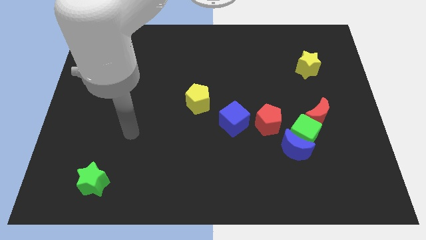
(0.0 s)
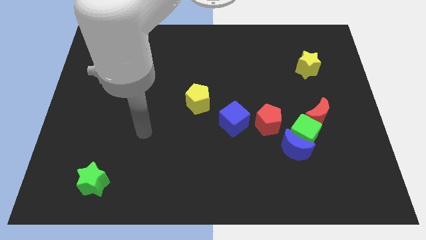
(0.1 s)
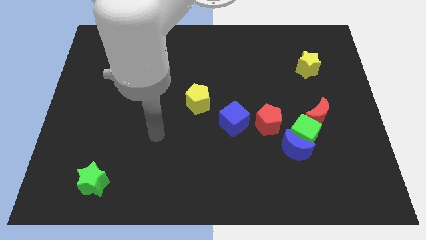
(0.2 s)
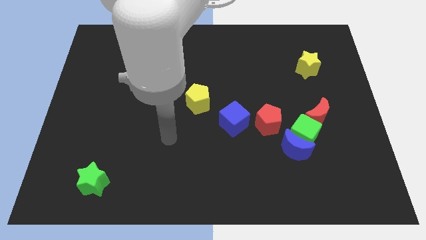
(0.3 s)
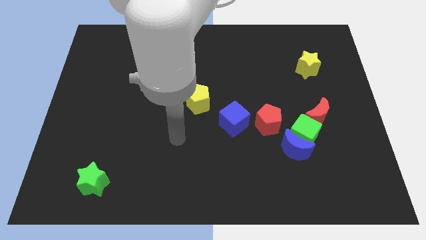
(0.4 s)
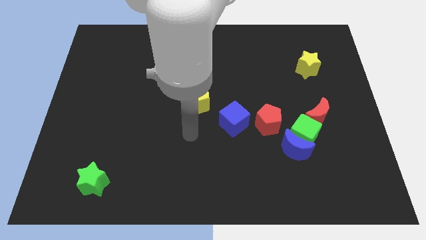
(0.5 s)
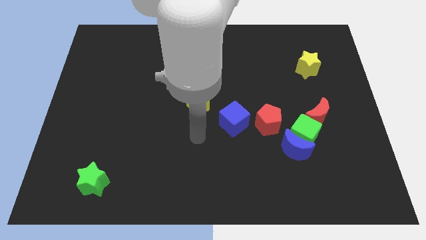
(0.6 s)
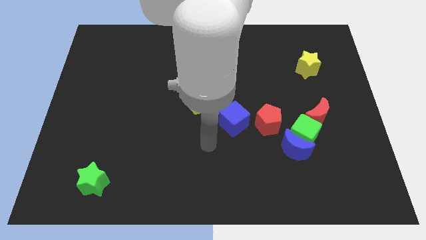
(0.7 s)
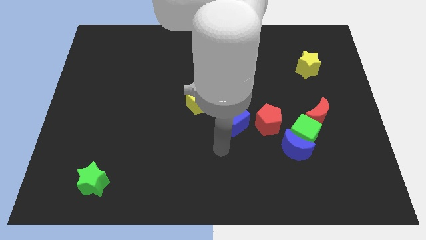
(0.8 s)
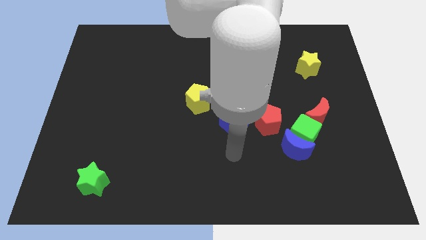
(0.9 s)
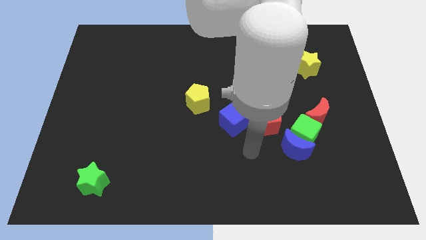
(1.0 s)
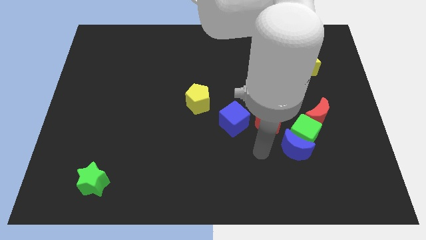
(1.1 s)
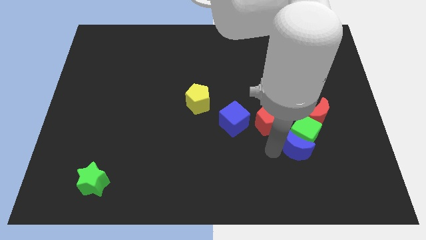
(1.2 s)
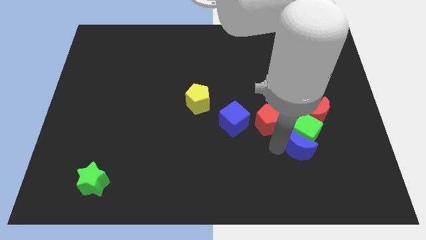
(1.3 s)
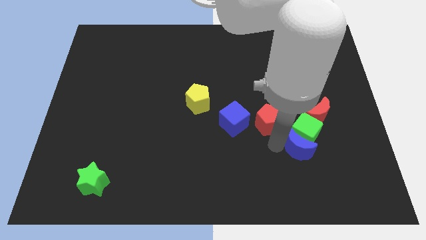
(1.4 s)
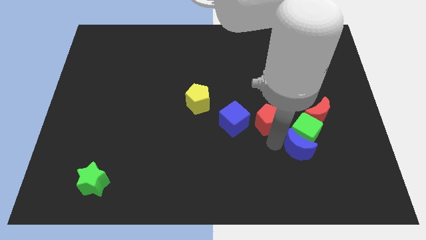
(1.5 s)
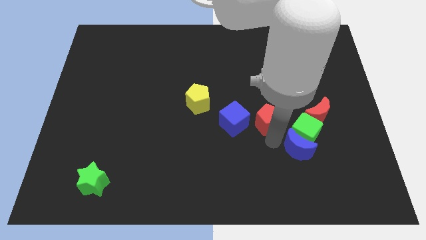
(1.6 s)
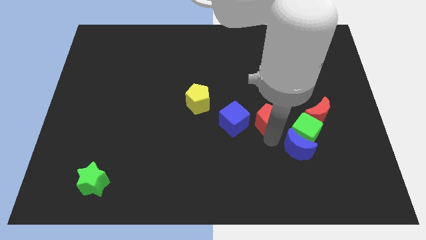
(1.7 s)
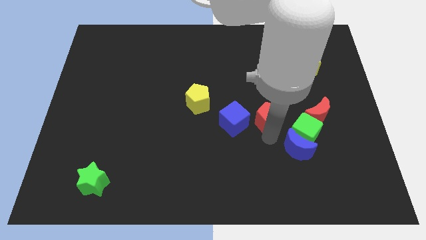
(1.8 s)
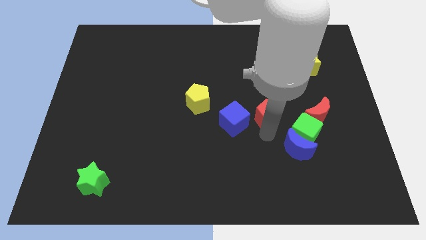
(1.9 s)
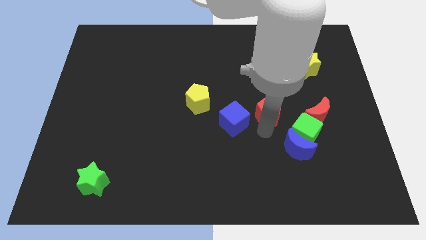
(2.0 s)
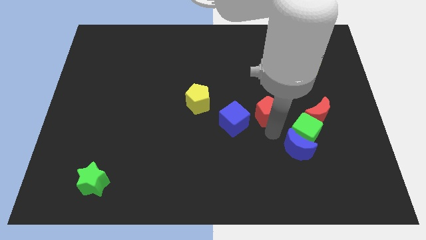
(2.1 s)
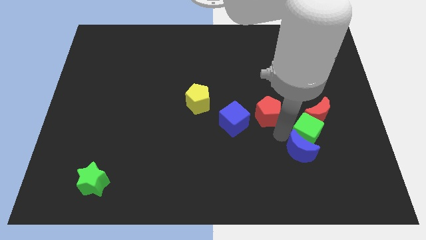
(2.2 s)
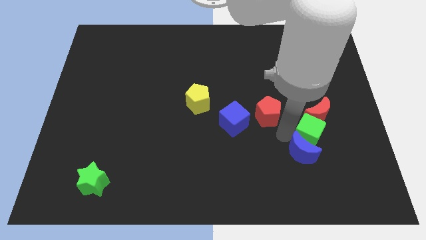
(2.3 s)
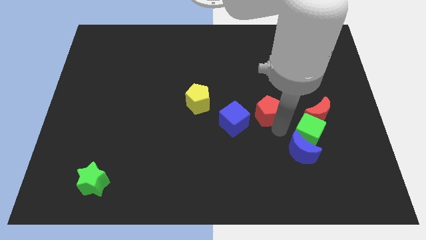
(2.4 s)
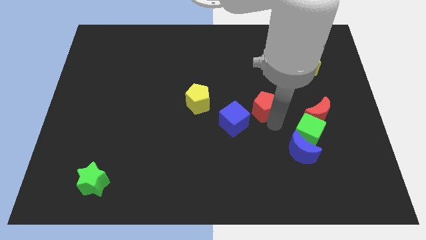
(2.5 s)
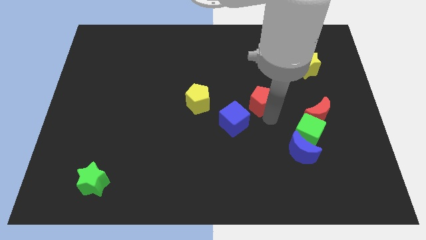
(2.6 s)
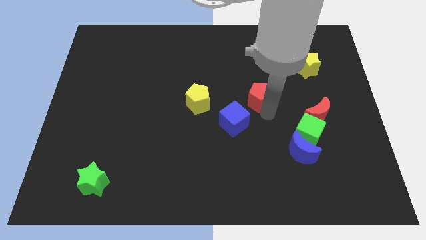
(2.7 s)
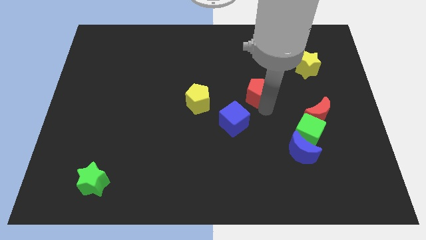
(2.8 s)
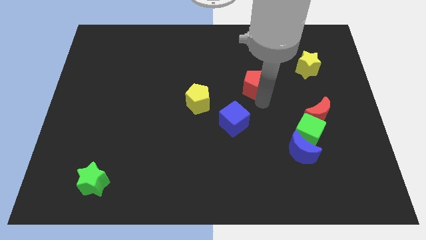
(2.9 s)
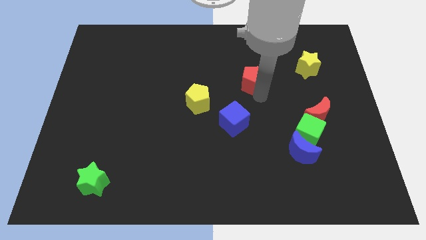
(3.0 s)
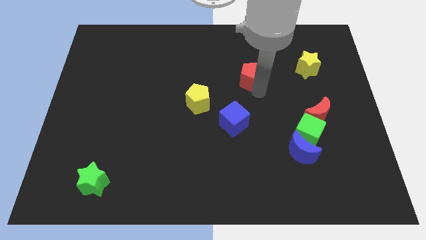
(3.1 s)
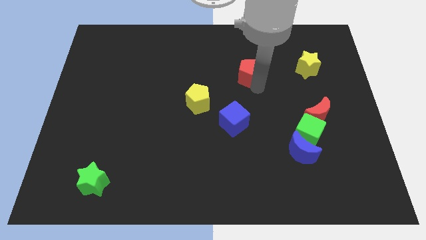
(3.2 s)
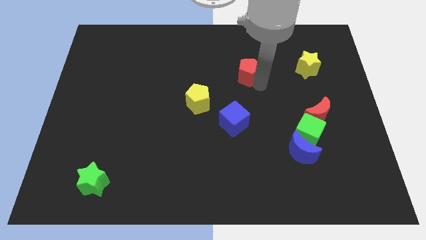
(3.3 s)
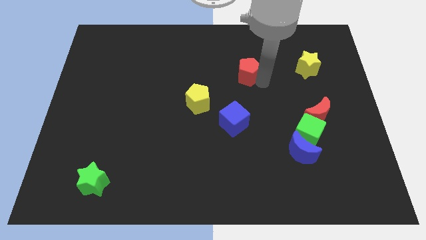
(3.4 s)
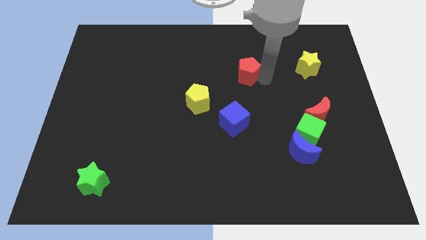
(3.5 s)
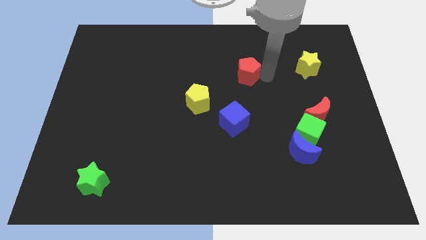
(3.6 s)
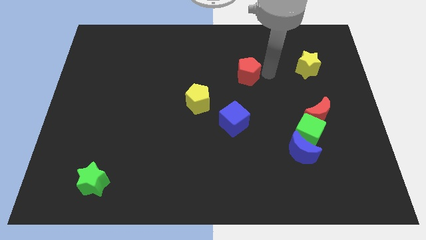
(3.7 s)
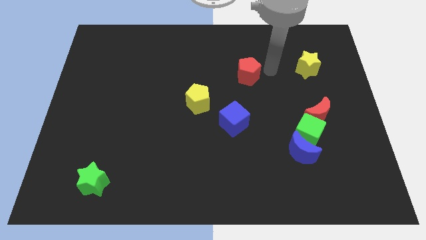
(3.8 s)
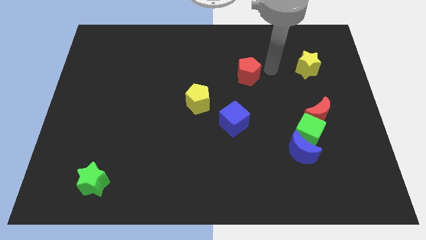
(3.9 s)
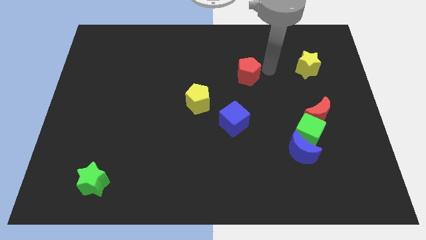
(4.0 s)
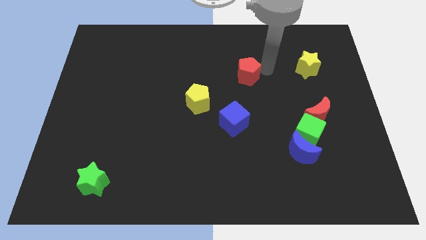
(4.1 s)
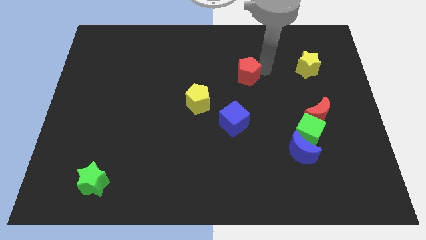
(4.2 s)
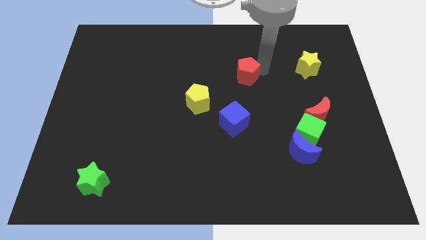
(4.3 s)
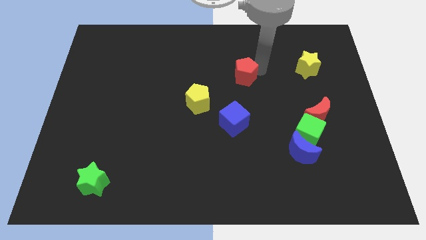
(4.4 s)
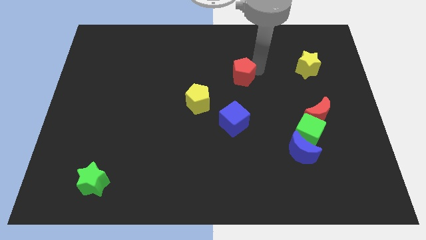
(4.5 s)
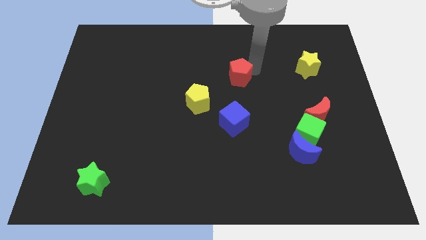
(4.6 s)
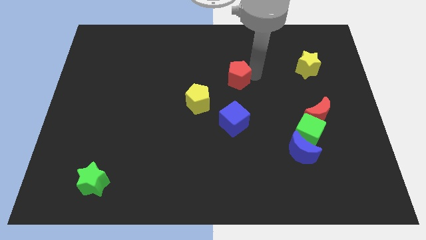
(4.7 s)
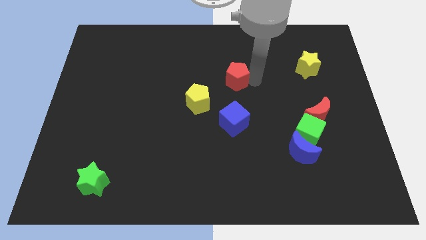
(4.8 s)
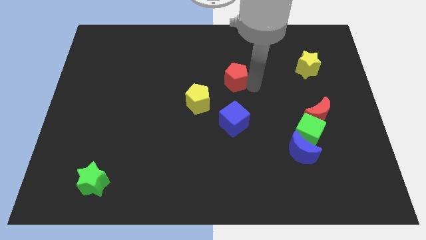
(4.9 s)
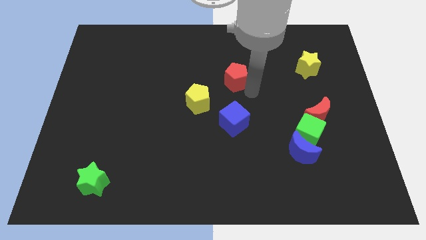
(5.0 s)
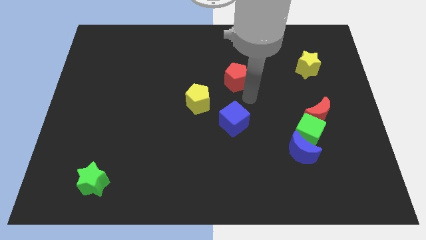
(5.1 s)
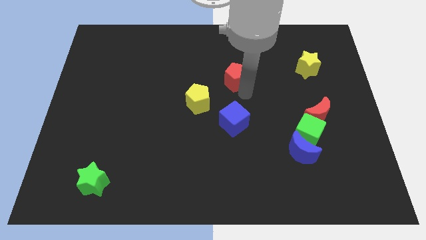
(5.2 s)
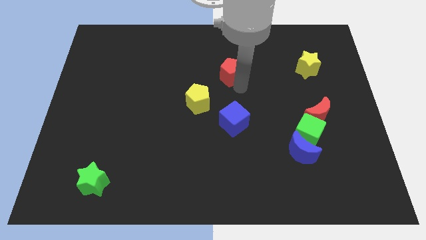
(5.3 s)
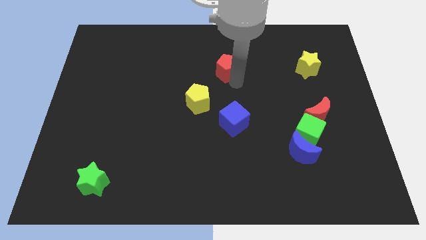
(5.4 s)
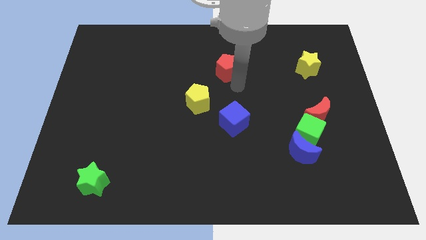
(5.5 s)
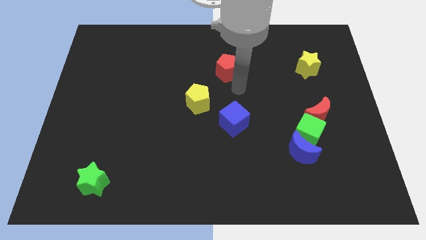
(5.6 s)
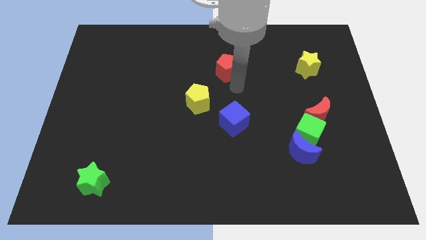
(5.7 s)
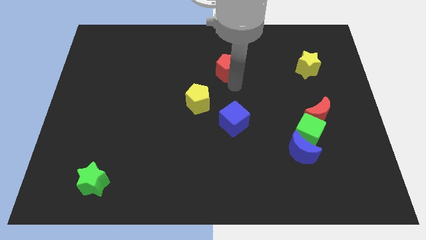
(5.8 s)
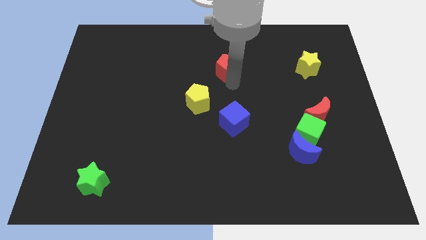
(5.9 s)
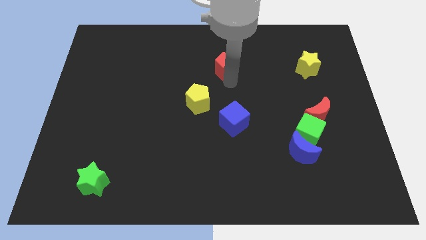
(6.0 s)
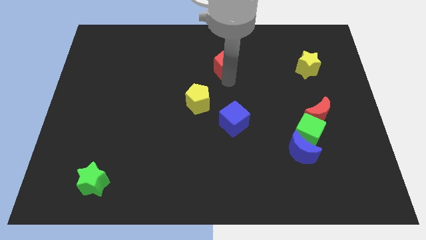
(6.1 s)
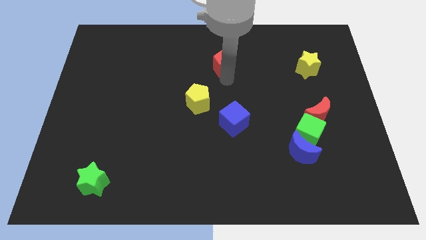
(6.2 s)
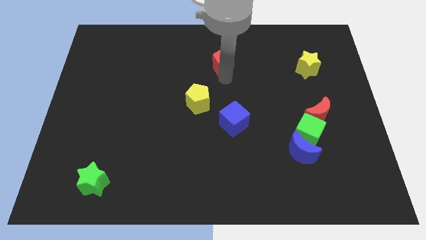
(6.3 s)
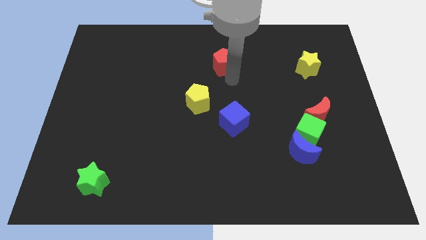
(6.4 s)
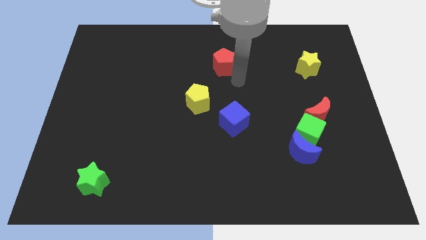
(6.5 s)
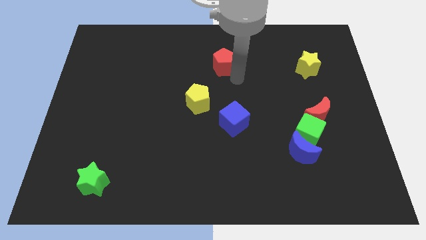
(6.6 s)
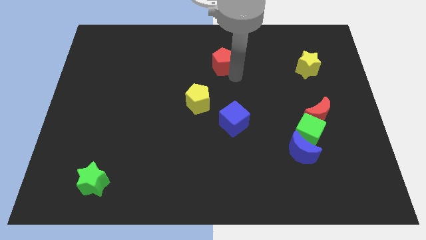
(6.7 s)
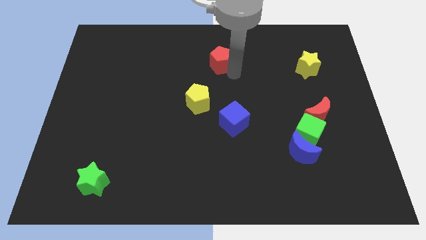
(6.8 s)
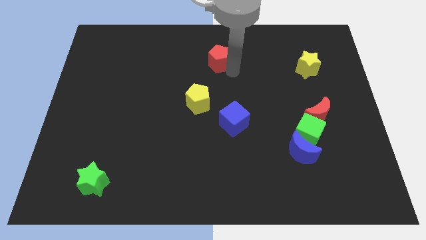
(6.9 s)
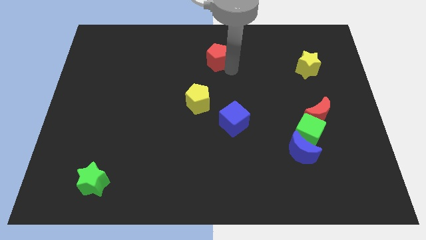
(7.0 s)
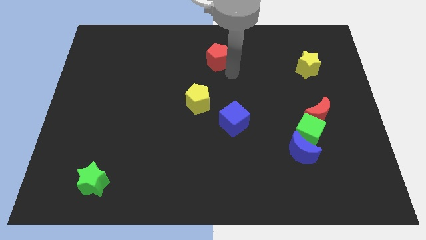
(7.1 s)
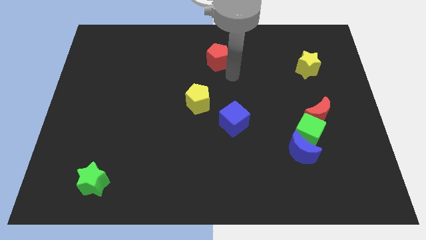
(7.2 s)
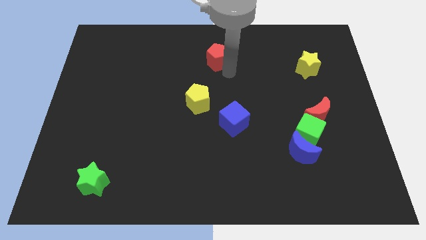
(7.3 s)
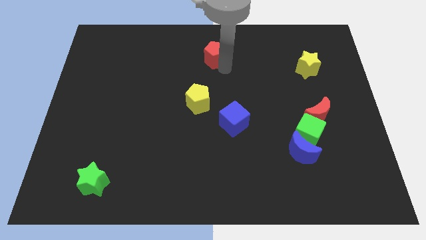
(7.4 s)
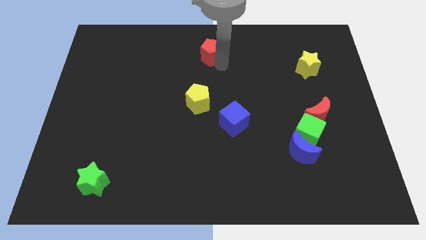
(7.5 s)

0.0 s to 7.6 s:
slide the red pentagon to the top side
